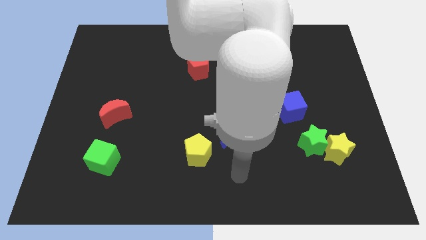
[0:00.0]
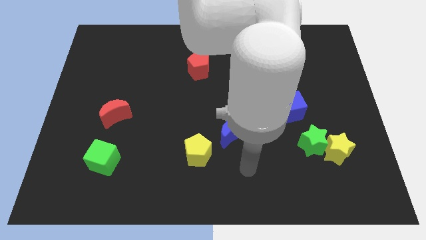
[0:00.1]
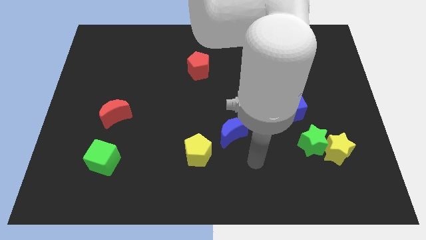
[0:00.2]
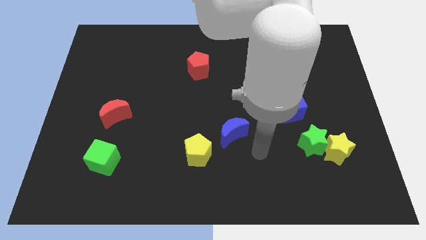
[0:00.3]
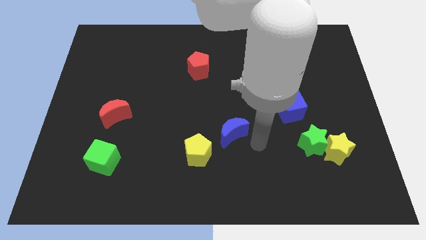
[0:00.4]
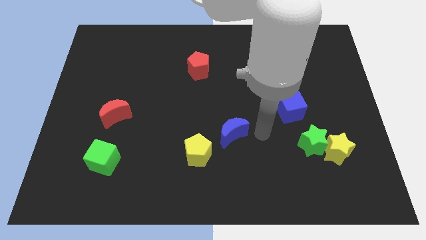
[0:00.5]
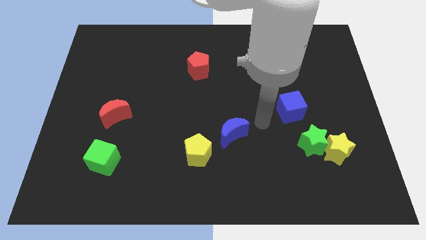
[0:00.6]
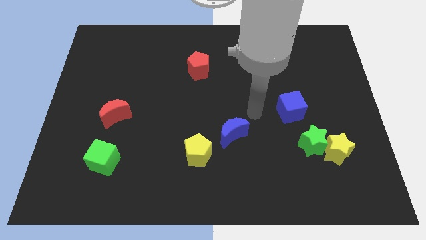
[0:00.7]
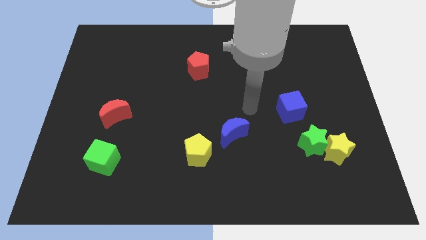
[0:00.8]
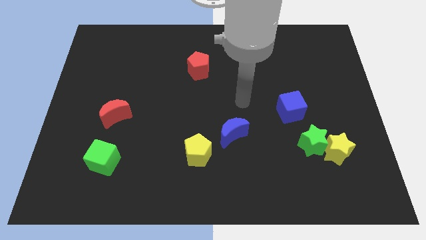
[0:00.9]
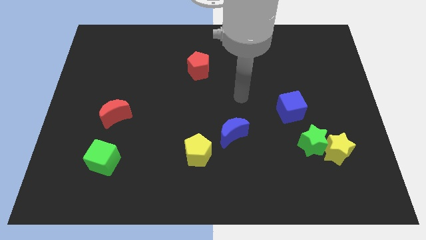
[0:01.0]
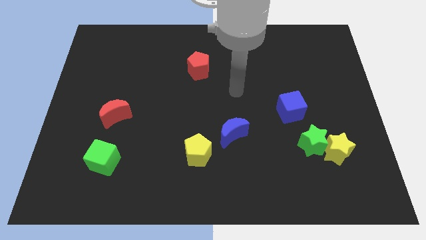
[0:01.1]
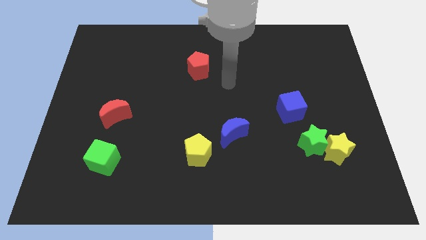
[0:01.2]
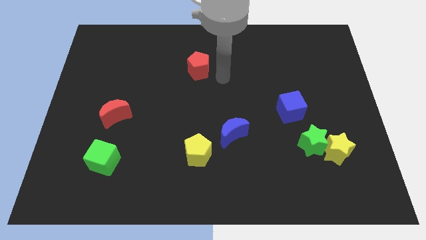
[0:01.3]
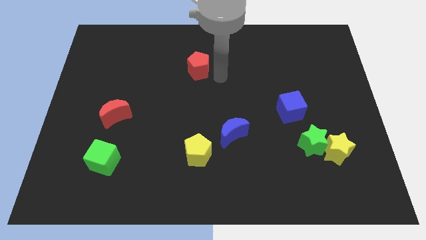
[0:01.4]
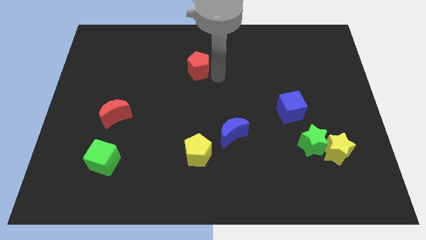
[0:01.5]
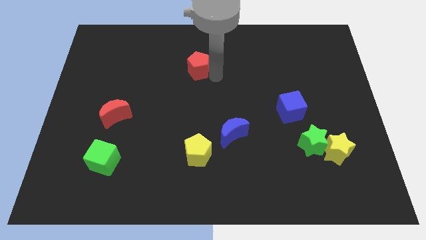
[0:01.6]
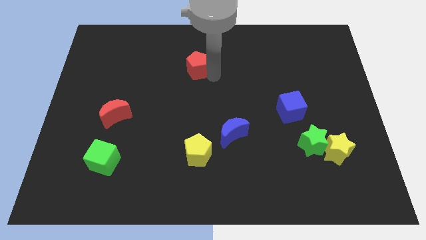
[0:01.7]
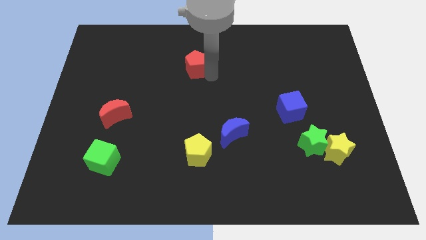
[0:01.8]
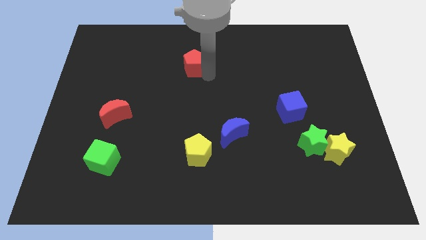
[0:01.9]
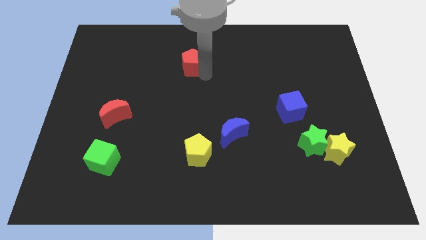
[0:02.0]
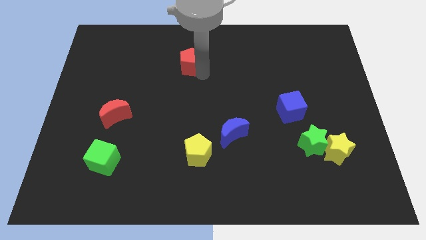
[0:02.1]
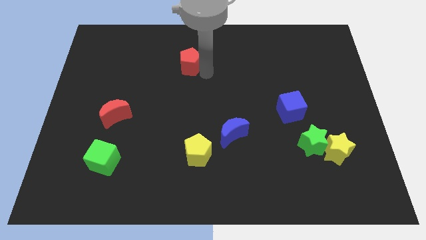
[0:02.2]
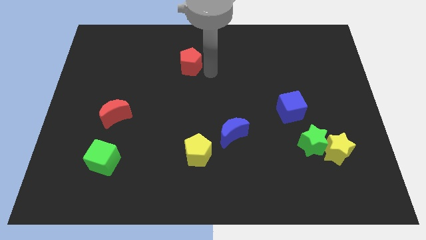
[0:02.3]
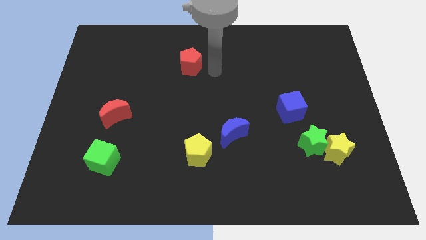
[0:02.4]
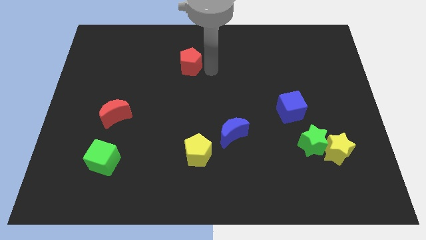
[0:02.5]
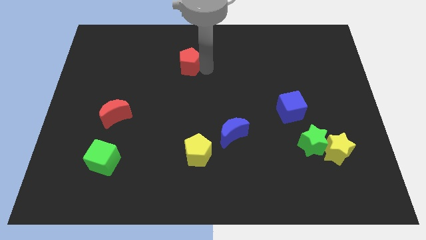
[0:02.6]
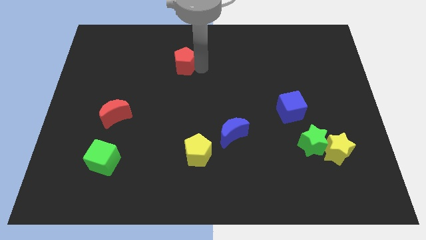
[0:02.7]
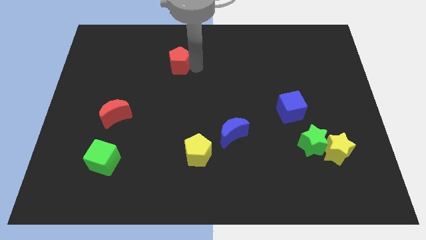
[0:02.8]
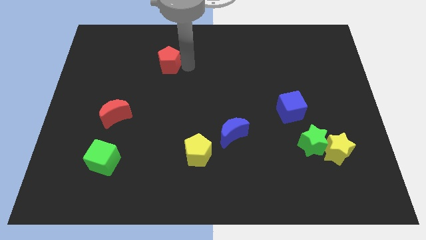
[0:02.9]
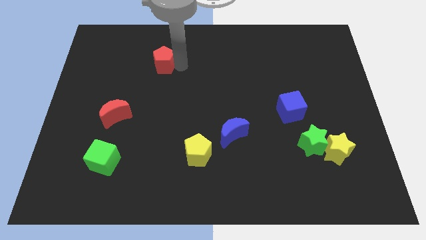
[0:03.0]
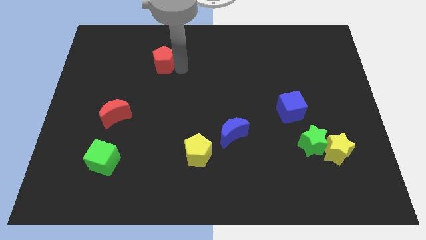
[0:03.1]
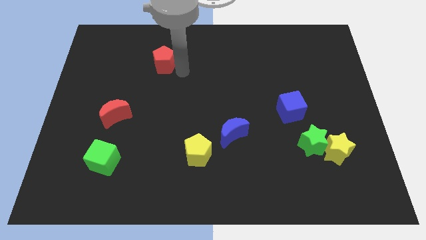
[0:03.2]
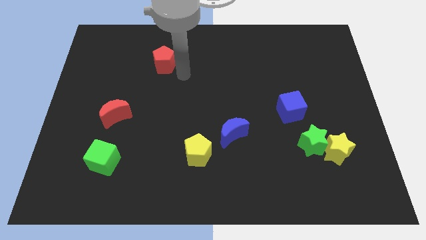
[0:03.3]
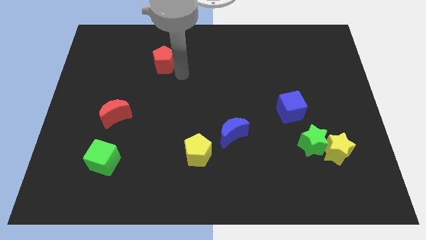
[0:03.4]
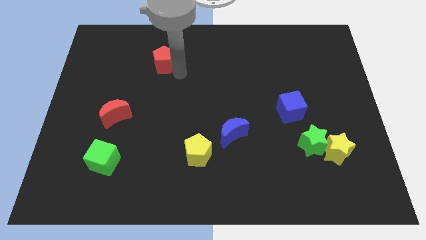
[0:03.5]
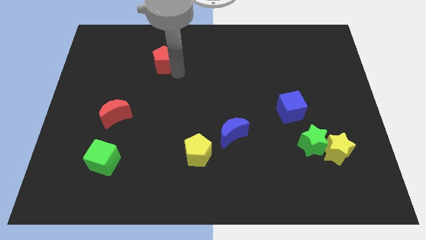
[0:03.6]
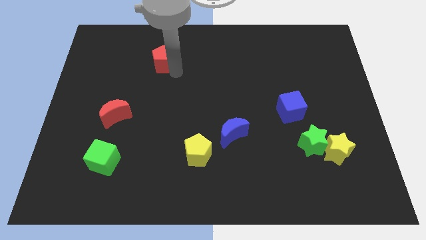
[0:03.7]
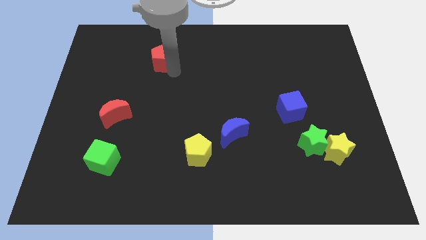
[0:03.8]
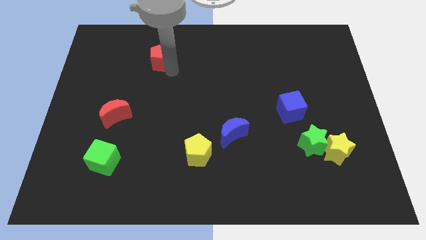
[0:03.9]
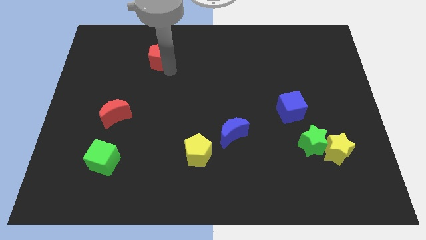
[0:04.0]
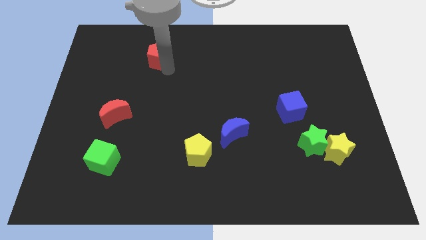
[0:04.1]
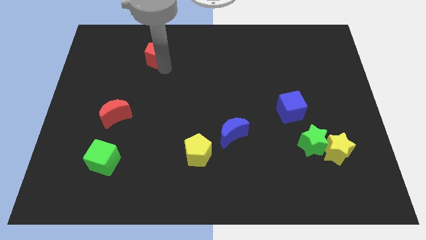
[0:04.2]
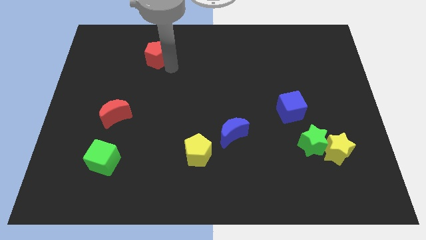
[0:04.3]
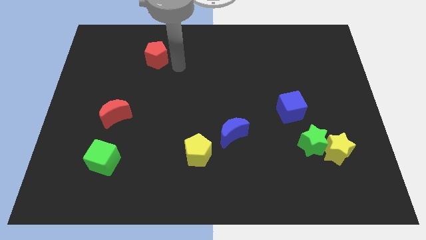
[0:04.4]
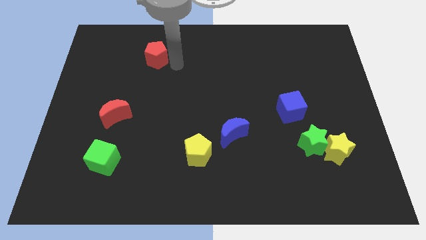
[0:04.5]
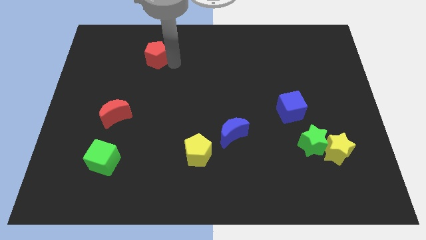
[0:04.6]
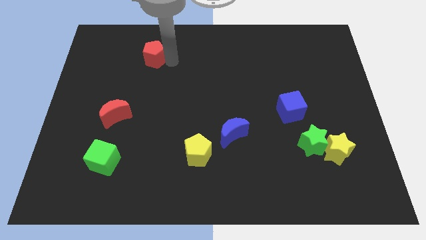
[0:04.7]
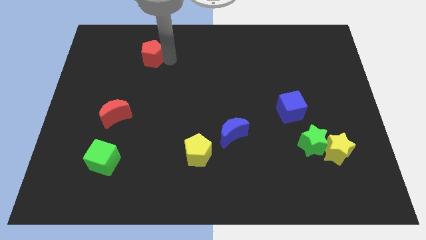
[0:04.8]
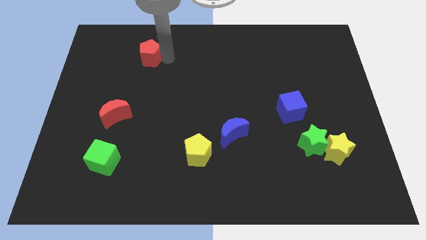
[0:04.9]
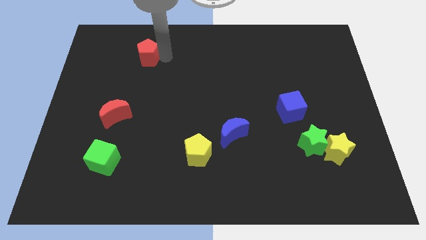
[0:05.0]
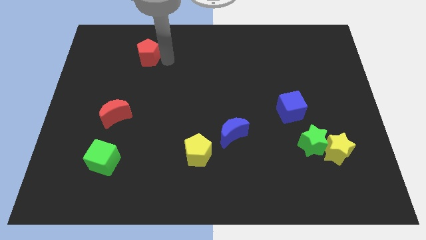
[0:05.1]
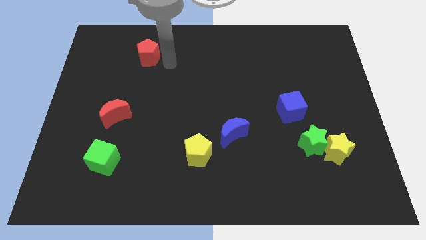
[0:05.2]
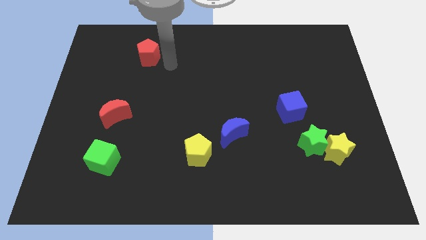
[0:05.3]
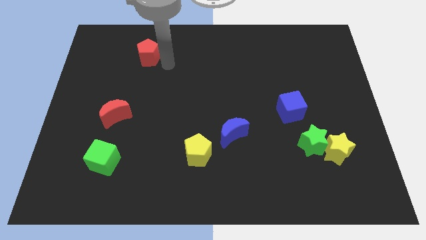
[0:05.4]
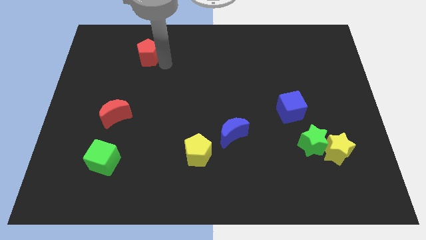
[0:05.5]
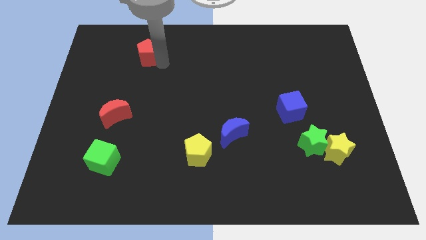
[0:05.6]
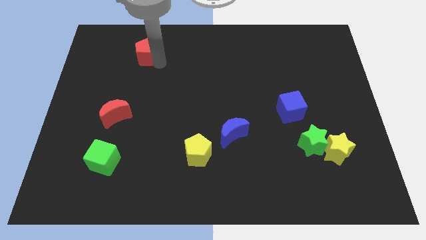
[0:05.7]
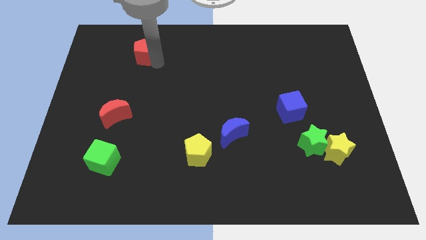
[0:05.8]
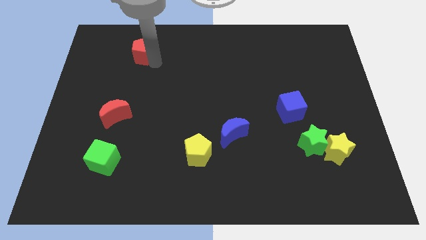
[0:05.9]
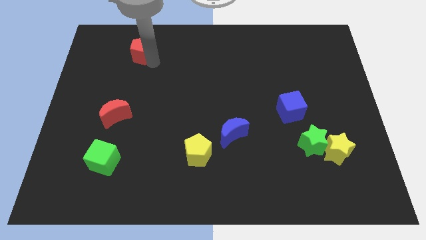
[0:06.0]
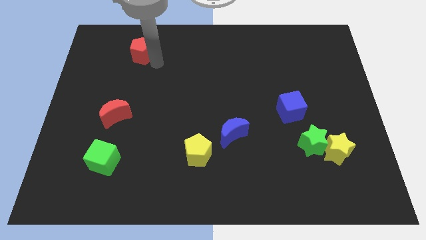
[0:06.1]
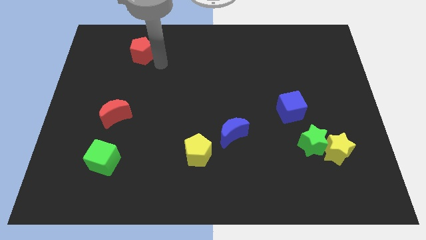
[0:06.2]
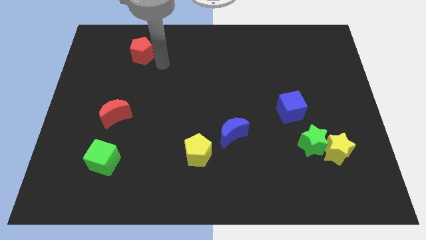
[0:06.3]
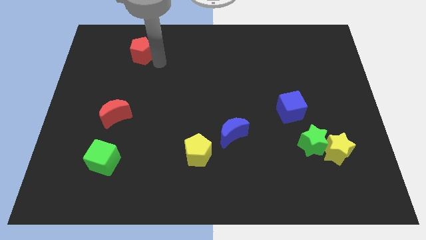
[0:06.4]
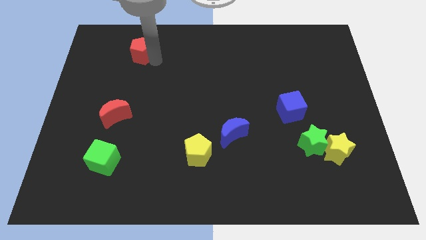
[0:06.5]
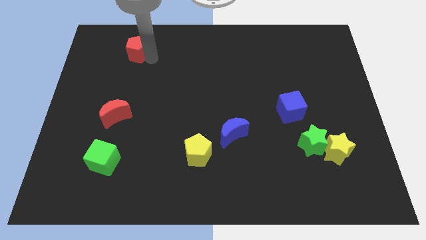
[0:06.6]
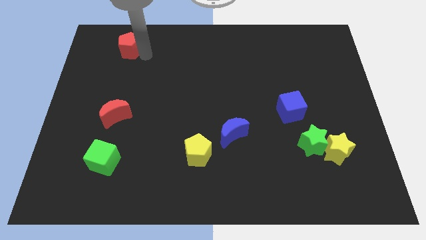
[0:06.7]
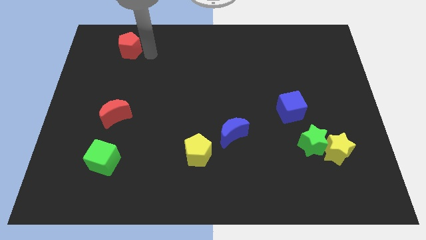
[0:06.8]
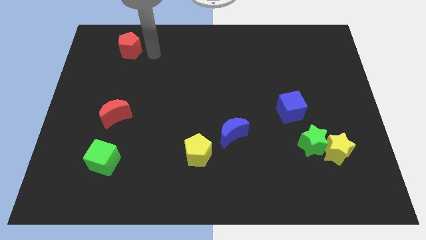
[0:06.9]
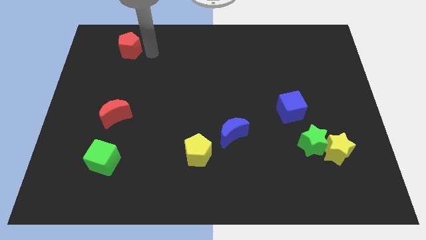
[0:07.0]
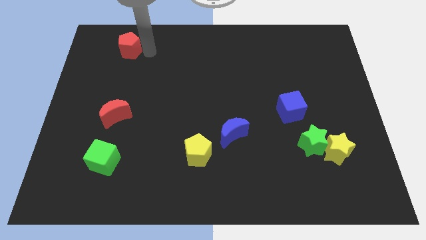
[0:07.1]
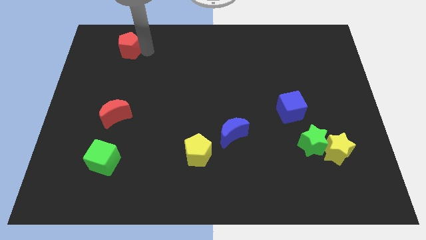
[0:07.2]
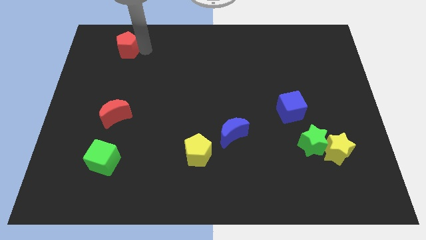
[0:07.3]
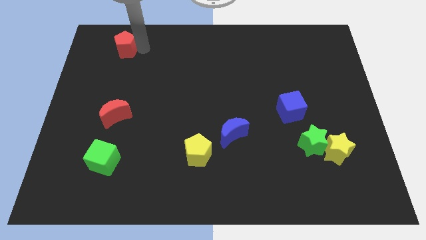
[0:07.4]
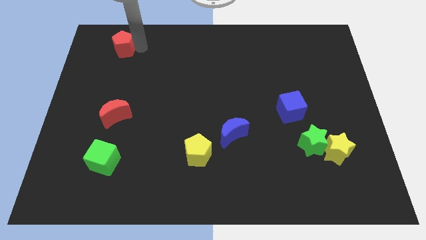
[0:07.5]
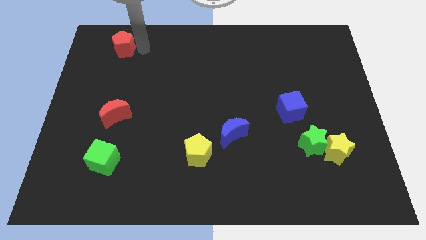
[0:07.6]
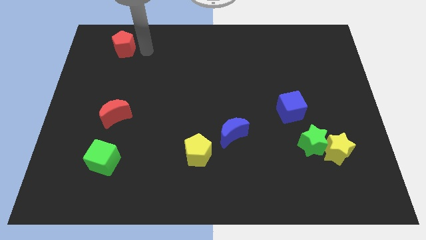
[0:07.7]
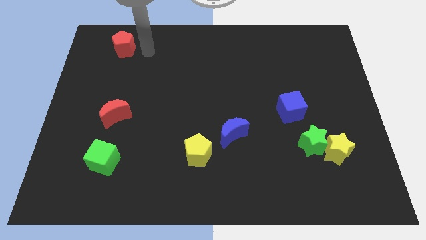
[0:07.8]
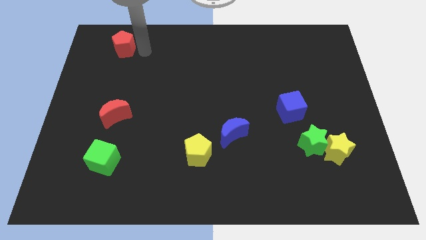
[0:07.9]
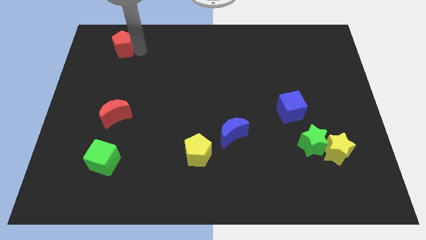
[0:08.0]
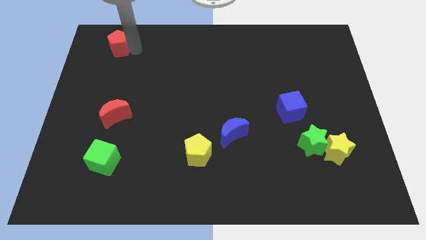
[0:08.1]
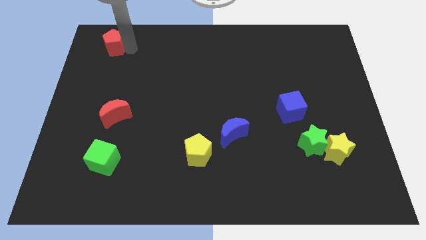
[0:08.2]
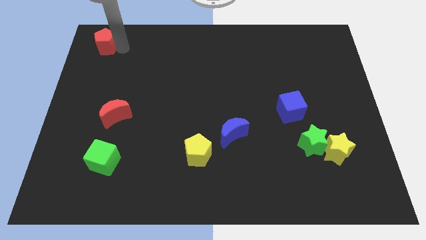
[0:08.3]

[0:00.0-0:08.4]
move the red pentagon to the upper left corner
